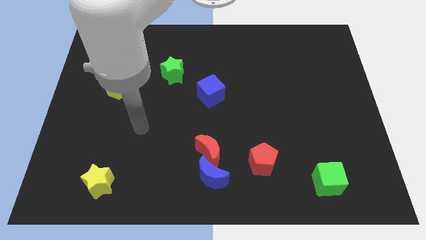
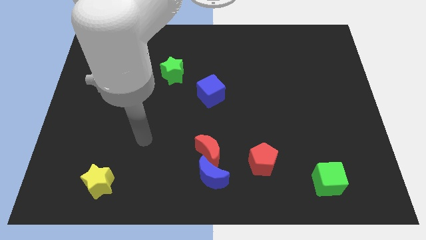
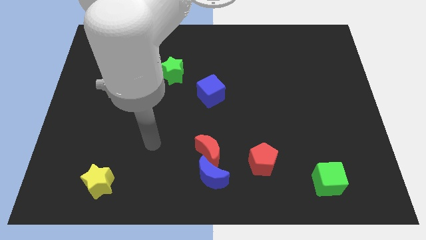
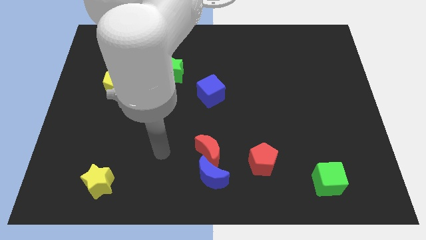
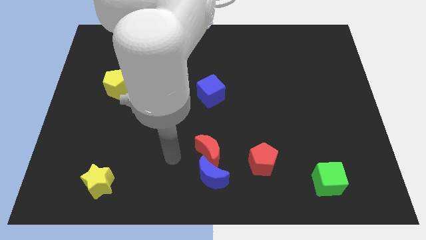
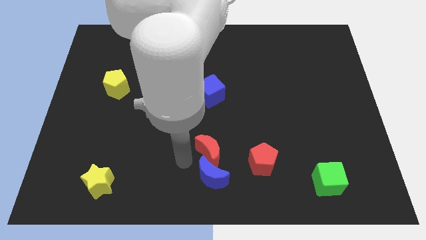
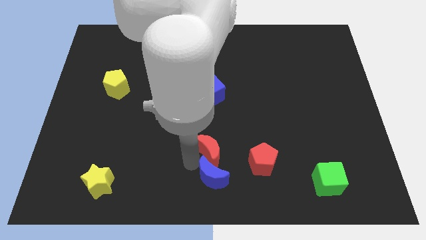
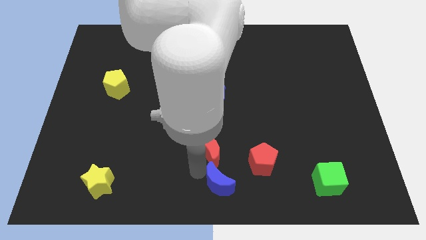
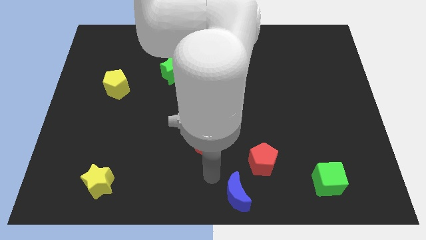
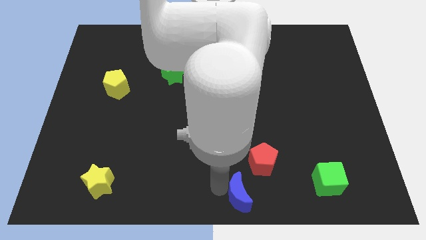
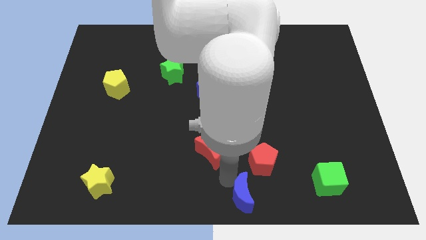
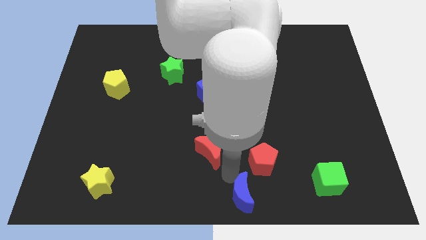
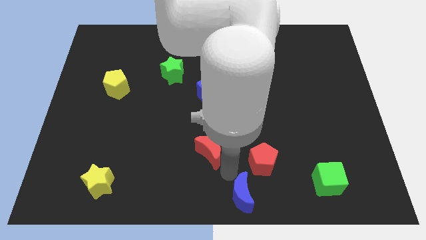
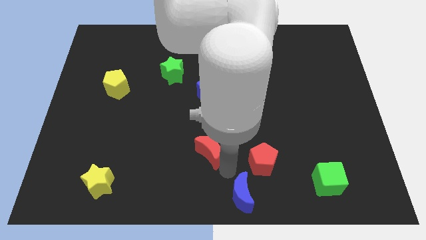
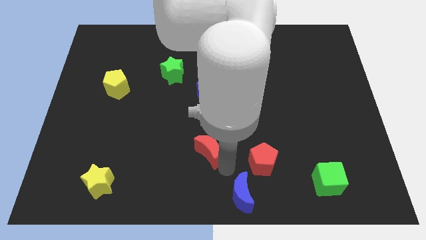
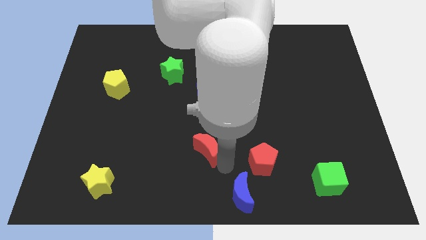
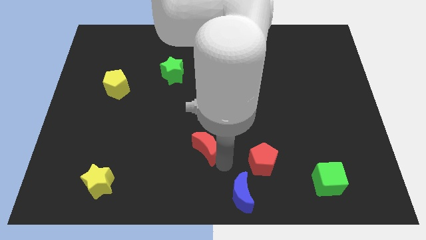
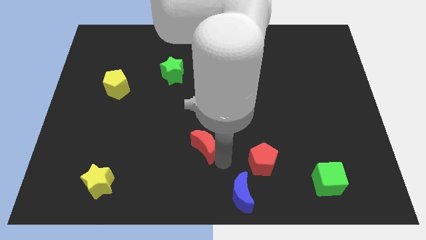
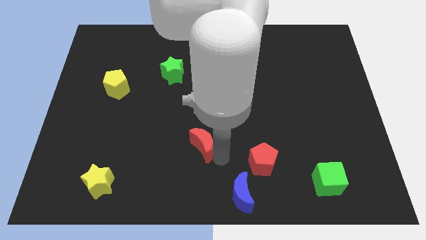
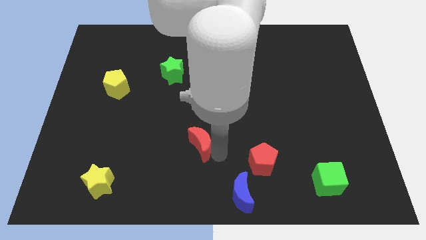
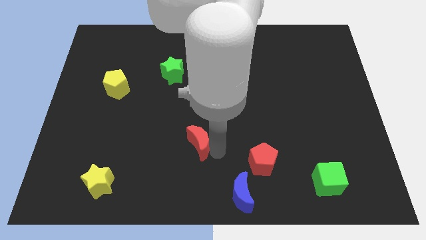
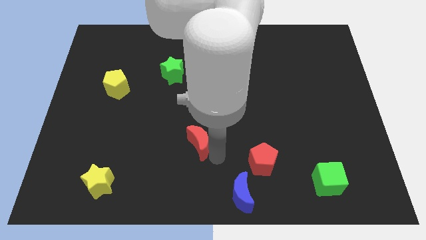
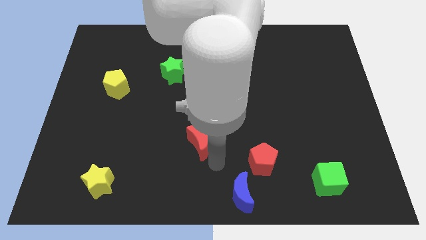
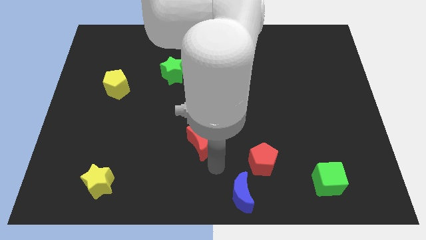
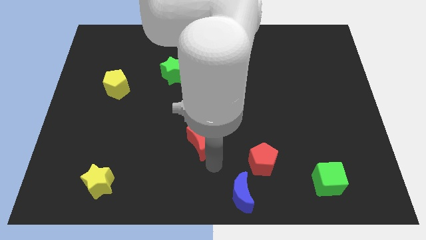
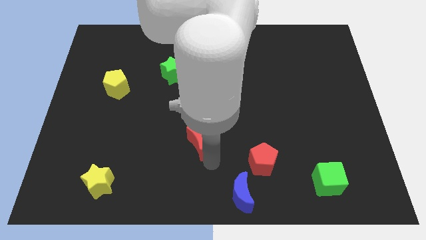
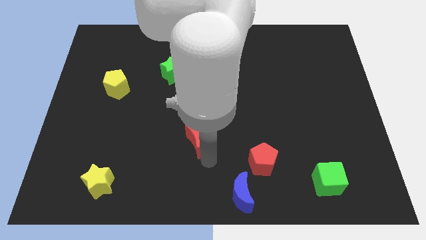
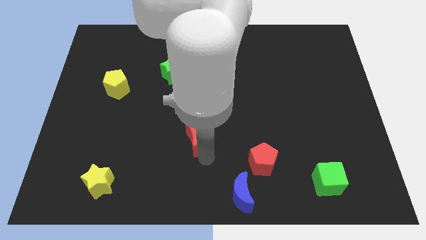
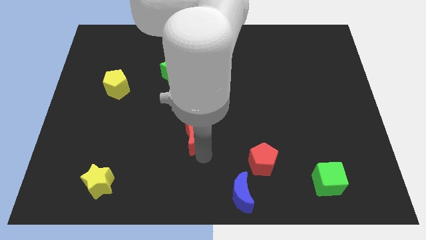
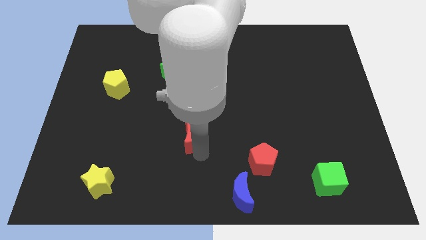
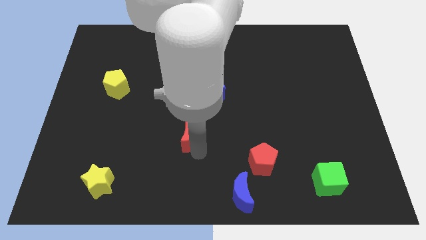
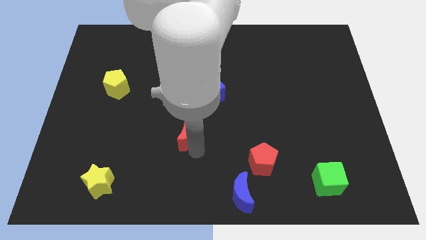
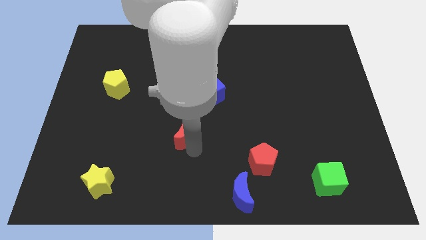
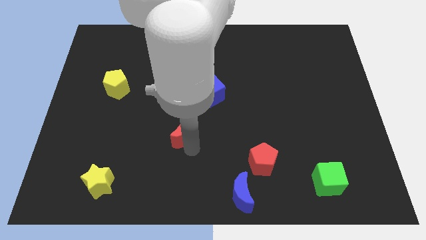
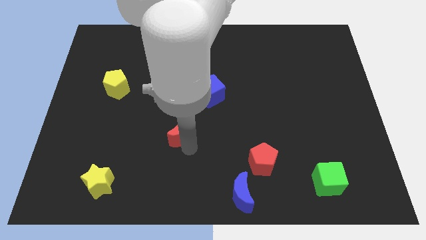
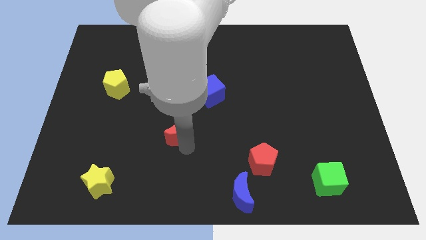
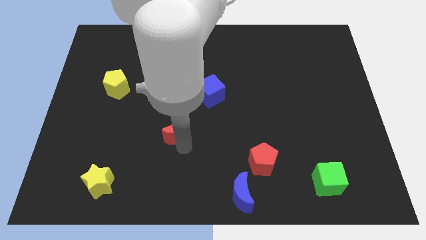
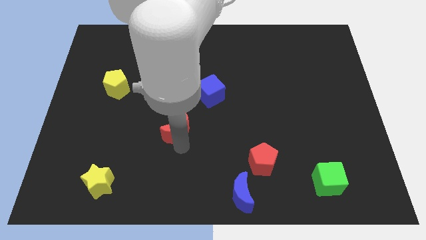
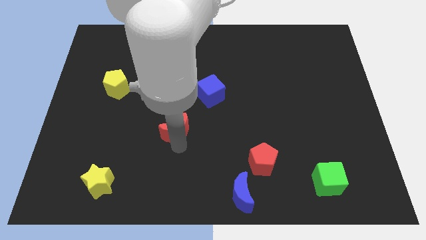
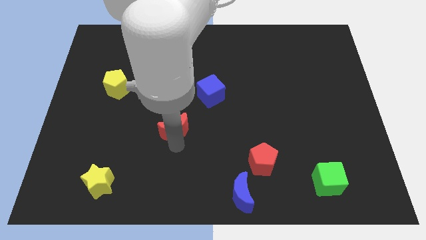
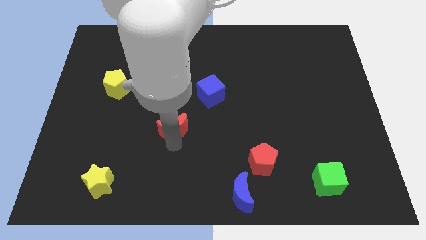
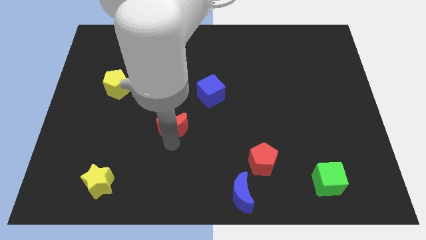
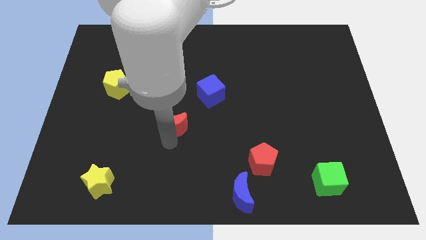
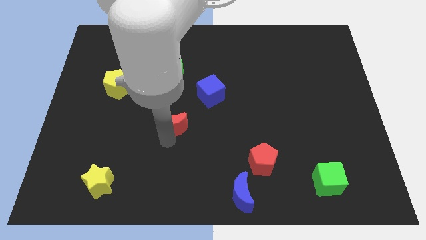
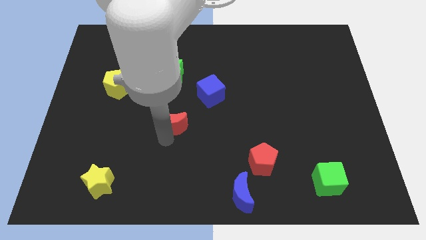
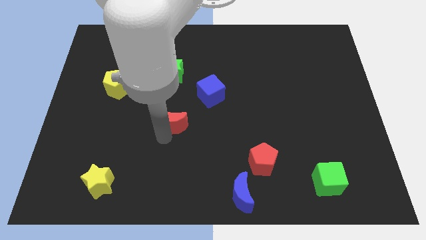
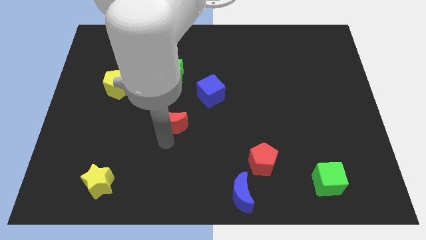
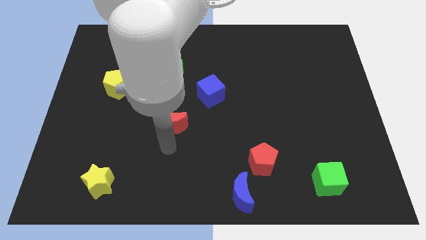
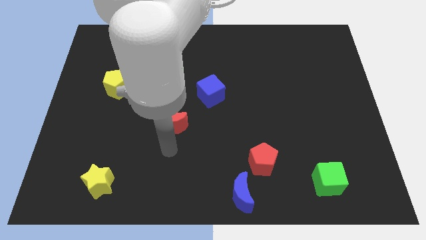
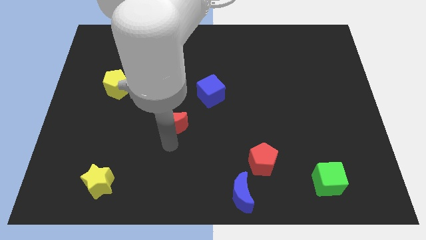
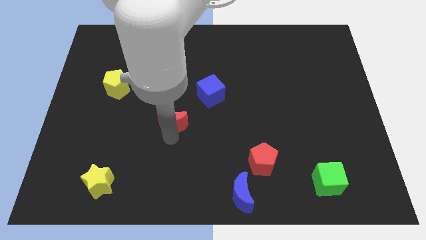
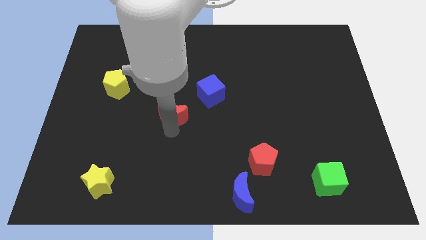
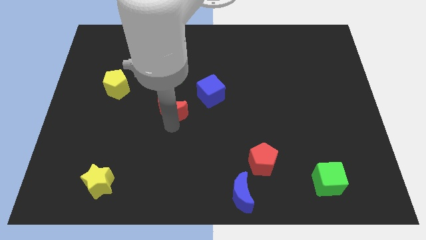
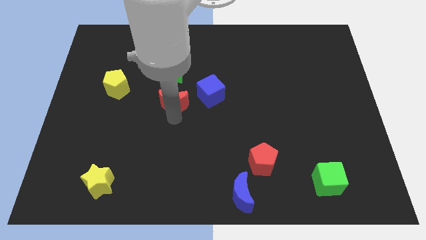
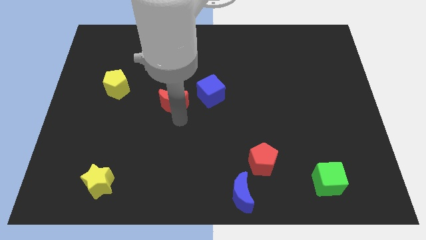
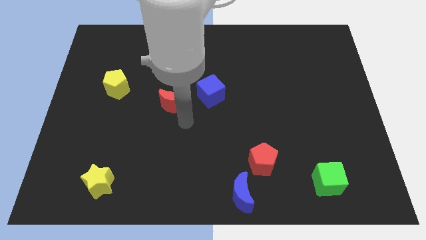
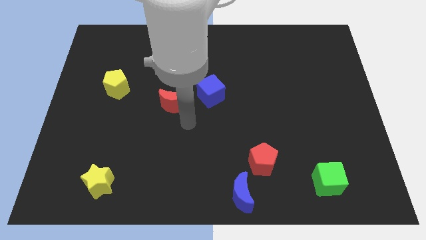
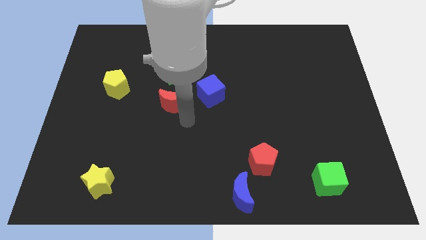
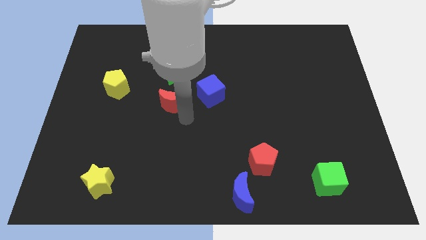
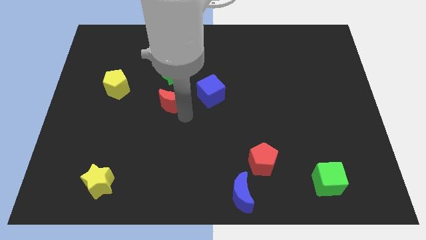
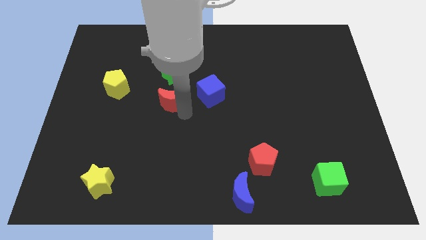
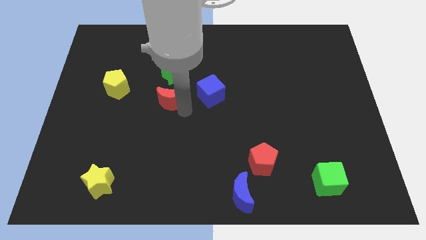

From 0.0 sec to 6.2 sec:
push the red moon to the right of the yellow pentagon
